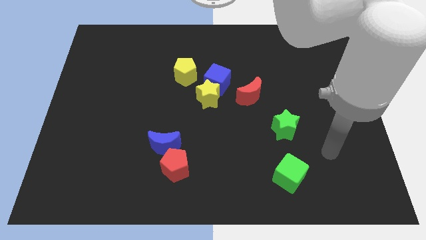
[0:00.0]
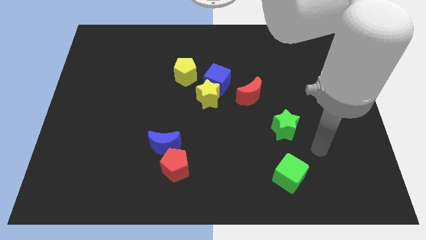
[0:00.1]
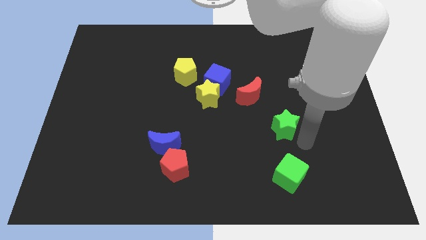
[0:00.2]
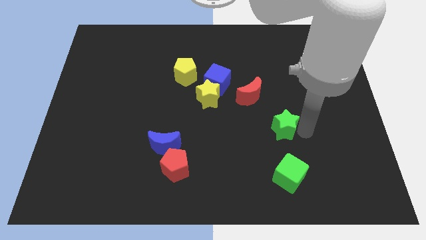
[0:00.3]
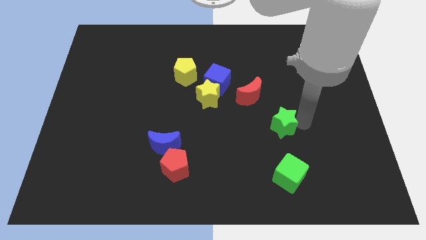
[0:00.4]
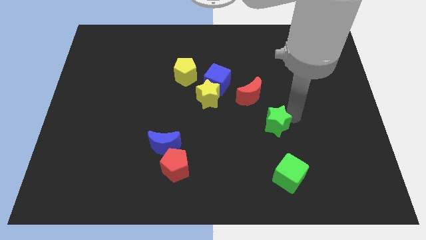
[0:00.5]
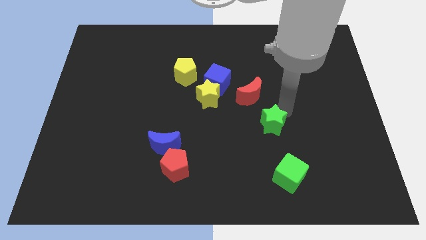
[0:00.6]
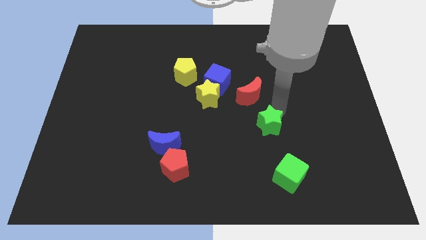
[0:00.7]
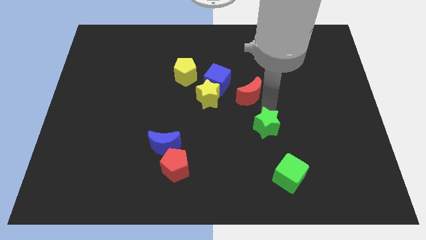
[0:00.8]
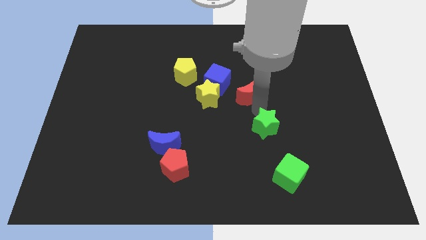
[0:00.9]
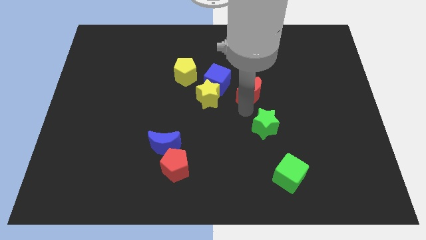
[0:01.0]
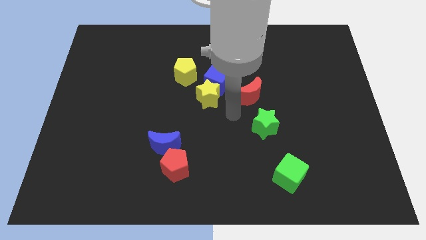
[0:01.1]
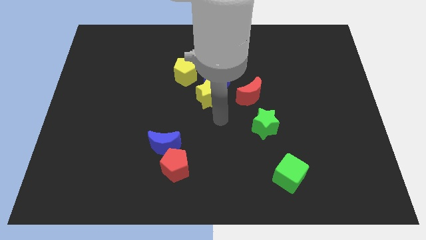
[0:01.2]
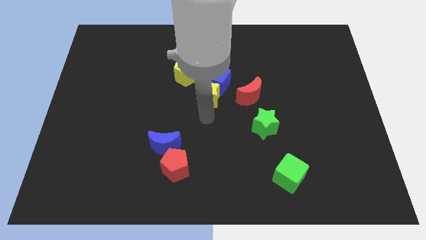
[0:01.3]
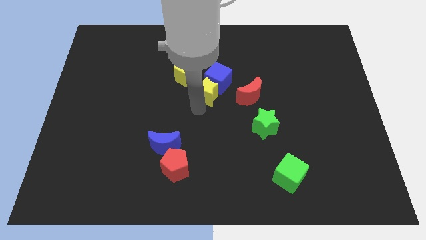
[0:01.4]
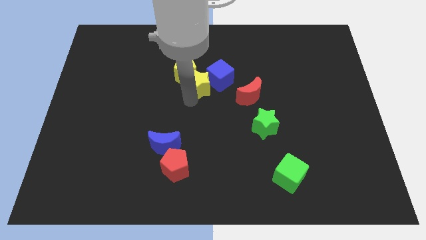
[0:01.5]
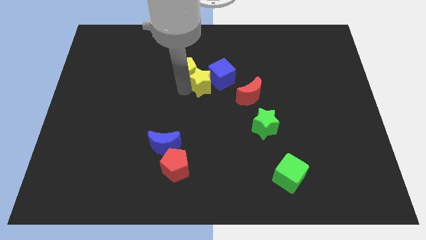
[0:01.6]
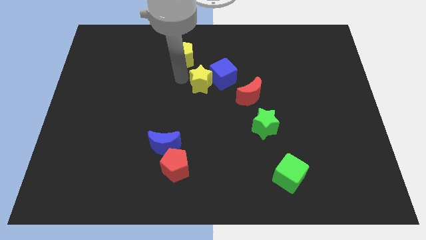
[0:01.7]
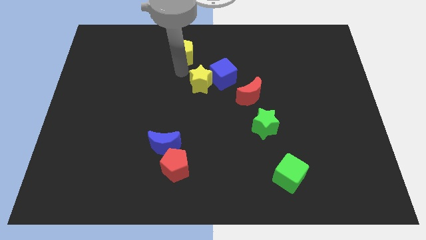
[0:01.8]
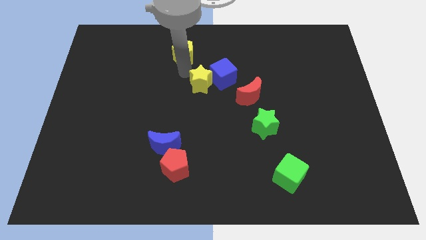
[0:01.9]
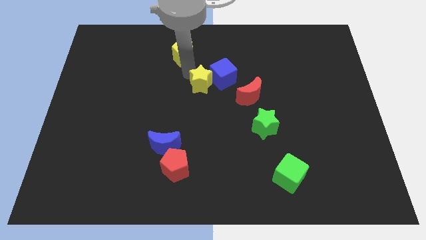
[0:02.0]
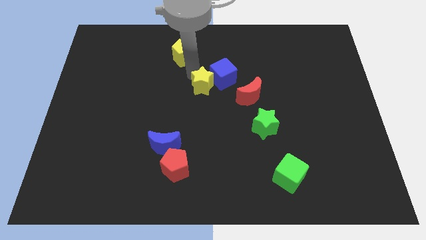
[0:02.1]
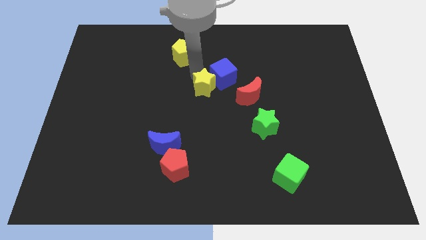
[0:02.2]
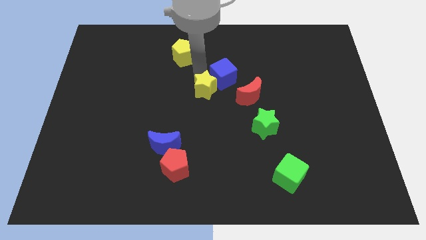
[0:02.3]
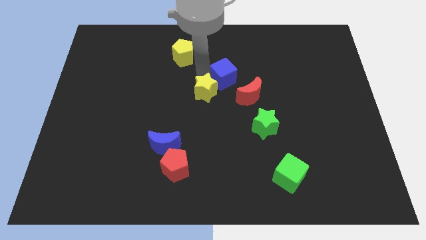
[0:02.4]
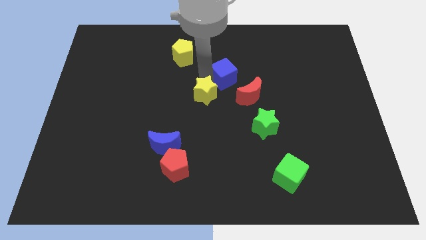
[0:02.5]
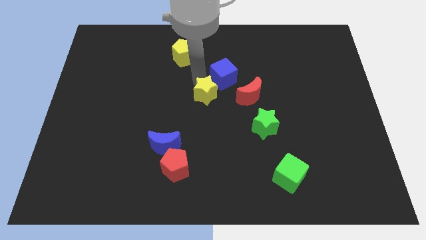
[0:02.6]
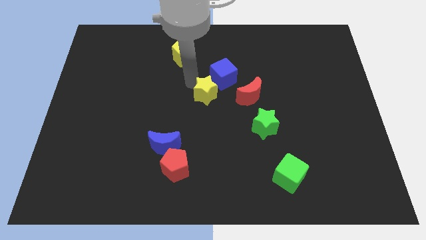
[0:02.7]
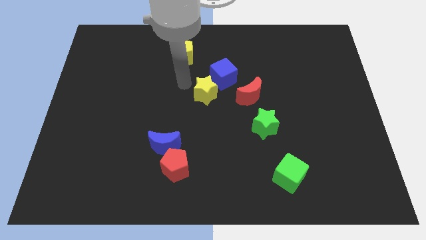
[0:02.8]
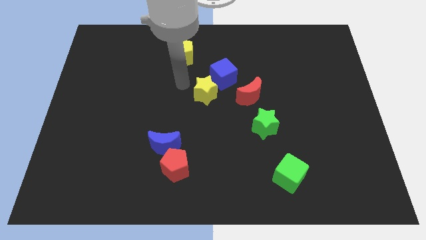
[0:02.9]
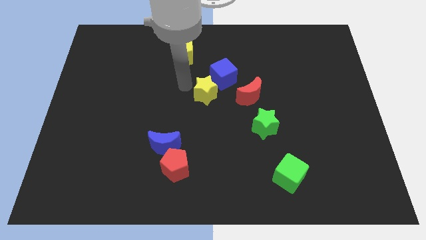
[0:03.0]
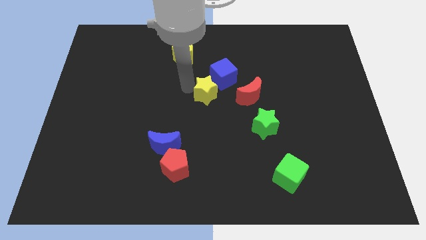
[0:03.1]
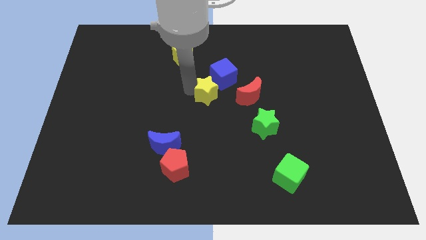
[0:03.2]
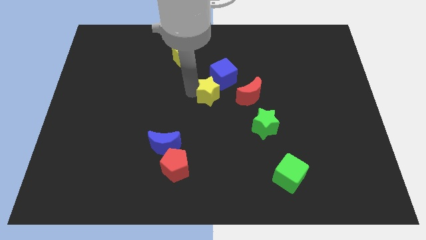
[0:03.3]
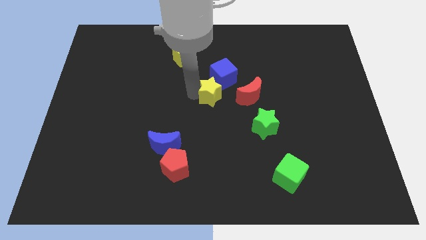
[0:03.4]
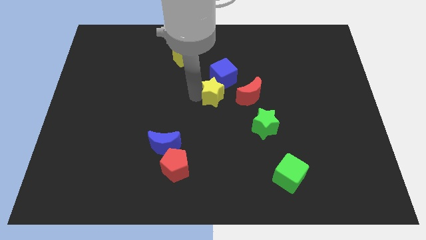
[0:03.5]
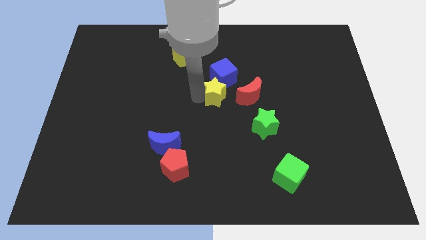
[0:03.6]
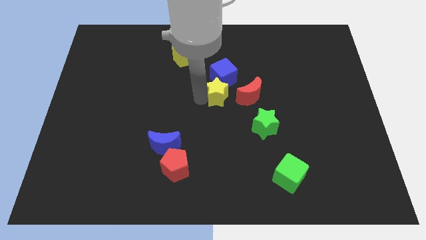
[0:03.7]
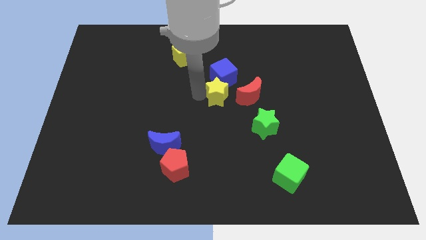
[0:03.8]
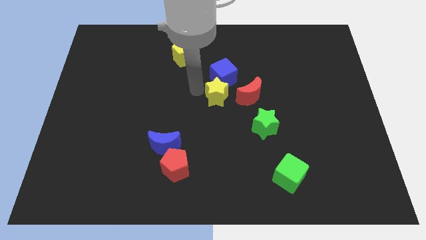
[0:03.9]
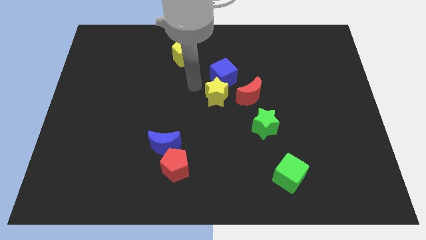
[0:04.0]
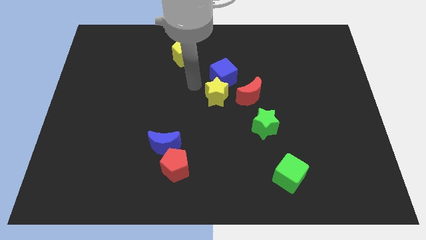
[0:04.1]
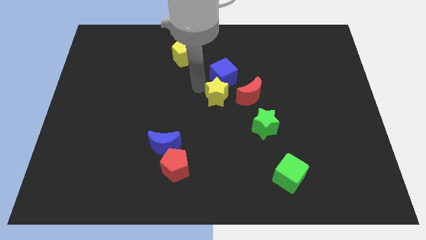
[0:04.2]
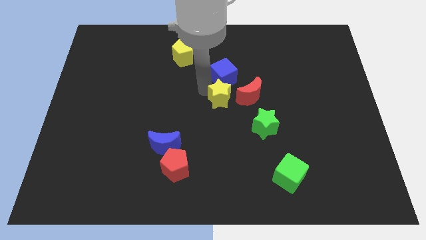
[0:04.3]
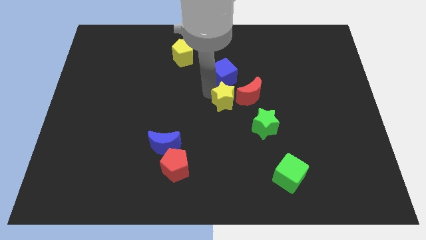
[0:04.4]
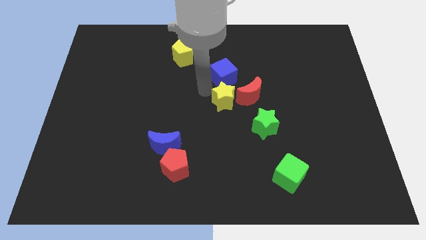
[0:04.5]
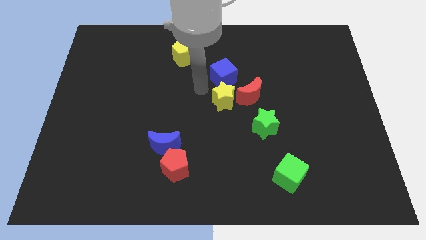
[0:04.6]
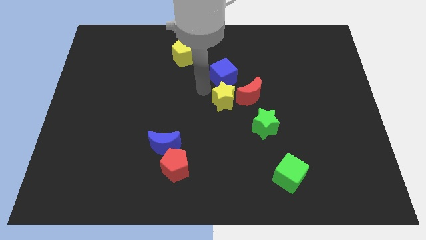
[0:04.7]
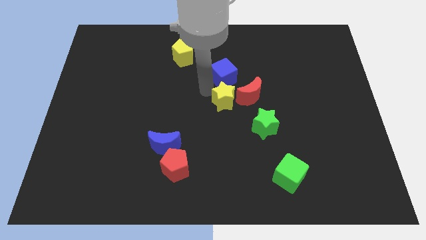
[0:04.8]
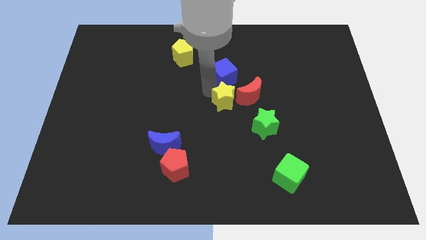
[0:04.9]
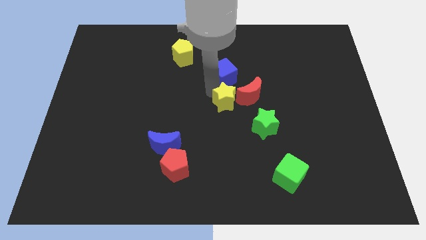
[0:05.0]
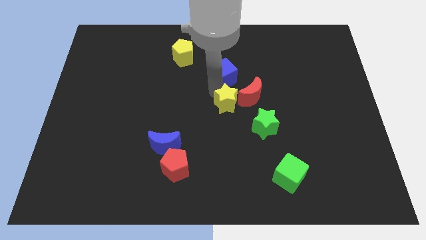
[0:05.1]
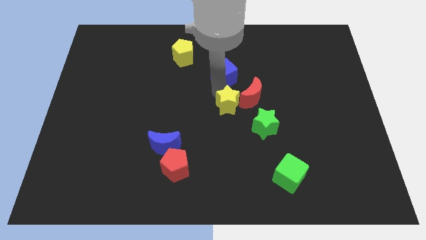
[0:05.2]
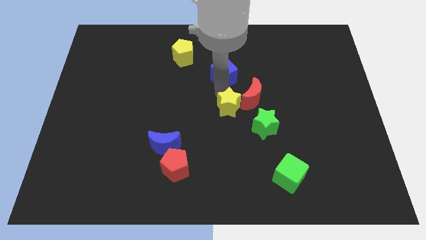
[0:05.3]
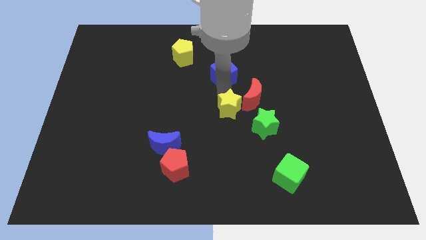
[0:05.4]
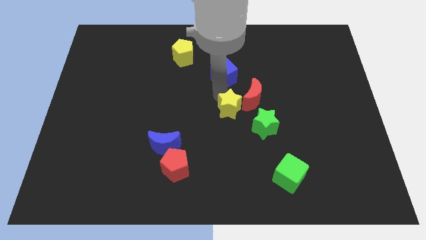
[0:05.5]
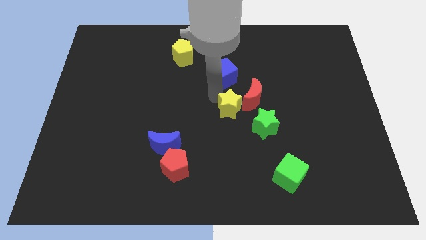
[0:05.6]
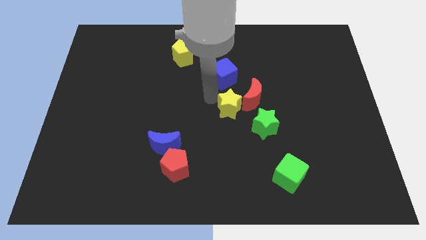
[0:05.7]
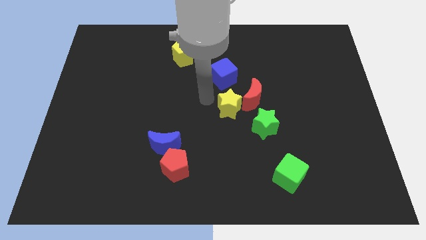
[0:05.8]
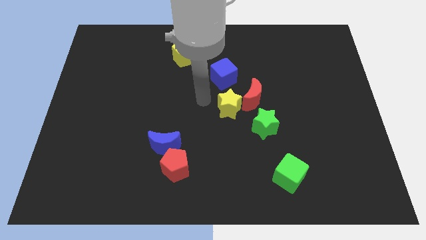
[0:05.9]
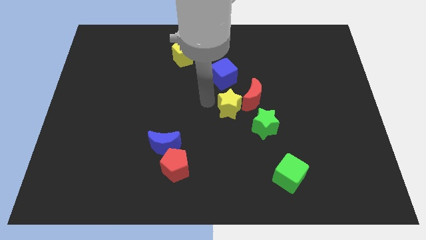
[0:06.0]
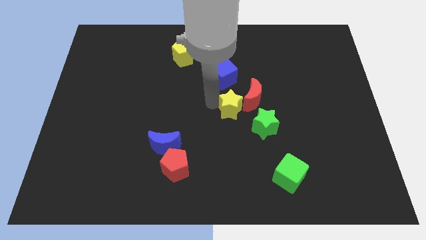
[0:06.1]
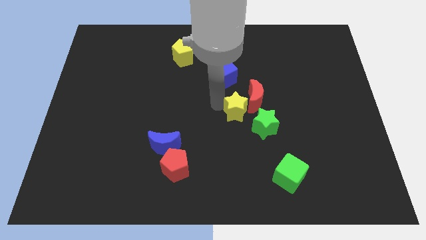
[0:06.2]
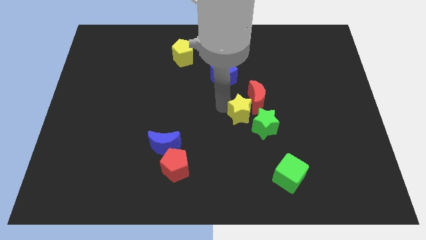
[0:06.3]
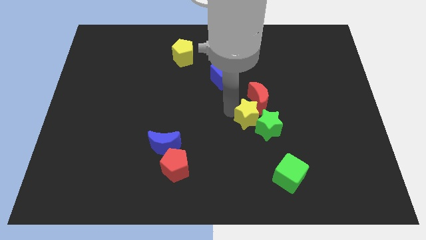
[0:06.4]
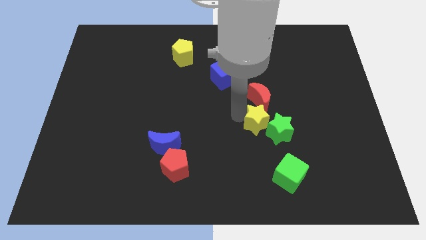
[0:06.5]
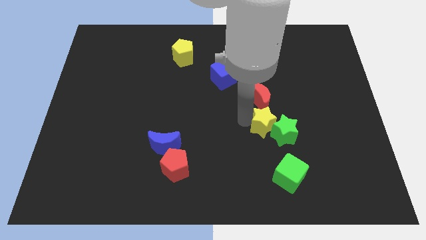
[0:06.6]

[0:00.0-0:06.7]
move the yellow star to the top side of the green cube

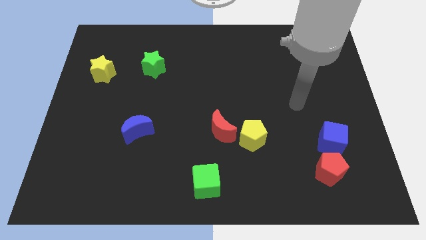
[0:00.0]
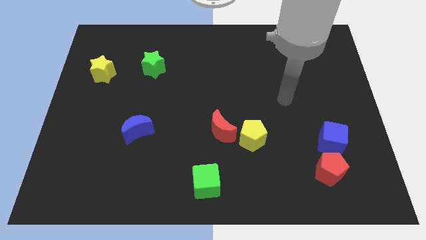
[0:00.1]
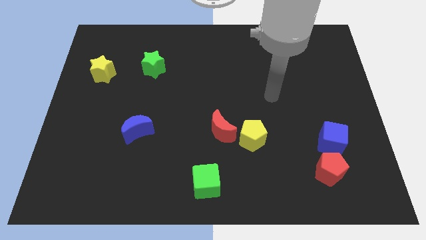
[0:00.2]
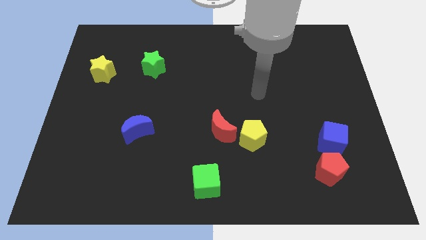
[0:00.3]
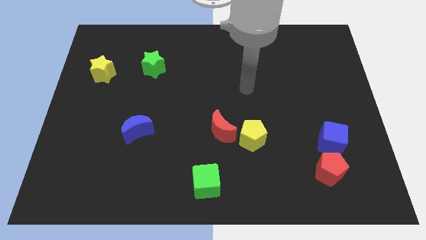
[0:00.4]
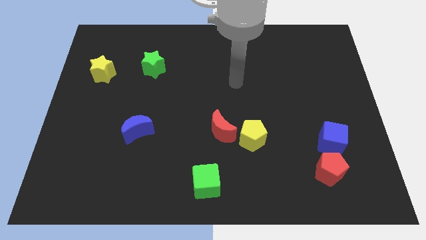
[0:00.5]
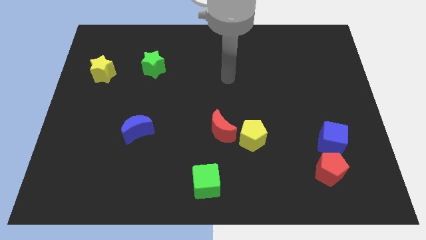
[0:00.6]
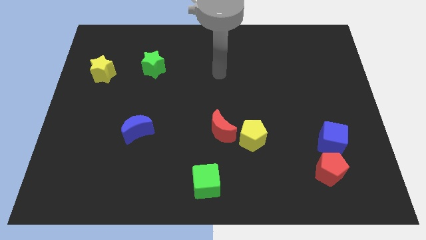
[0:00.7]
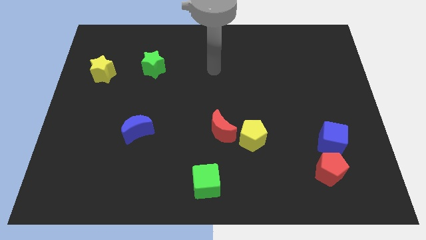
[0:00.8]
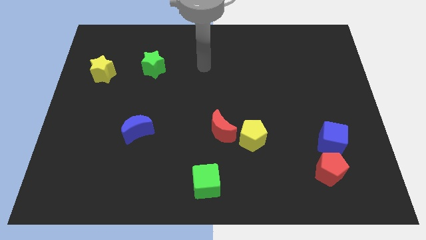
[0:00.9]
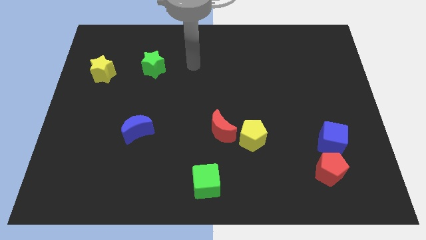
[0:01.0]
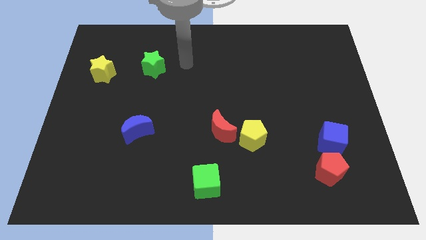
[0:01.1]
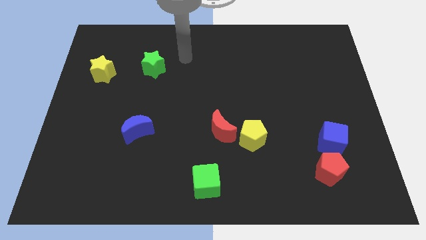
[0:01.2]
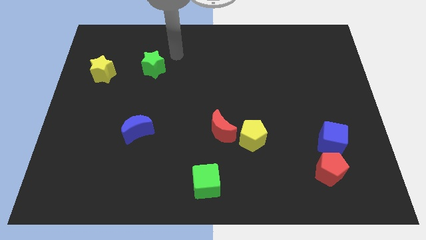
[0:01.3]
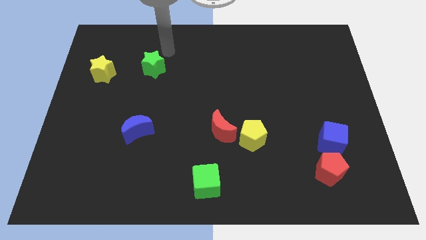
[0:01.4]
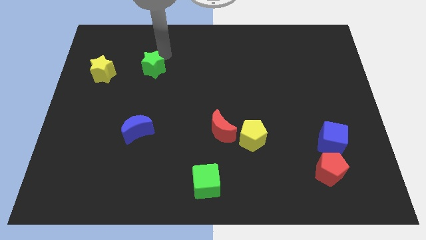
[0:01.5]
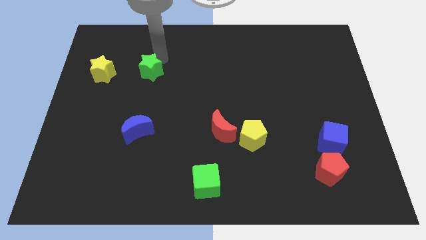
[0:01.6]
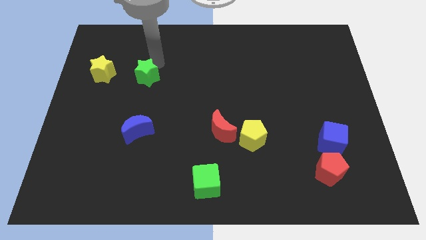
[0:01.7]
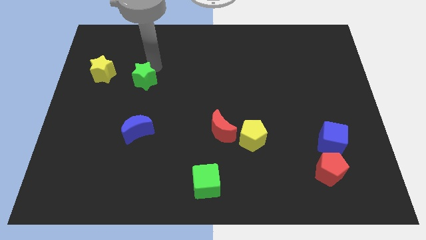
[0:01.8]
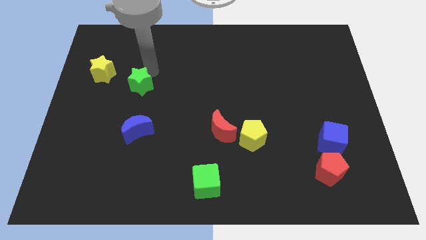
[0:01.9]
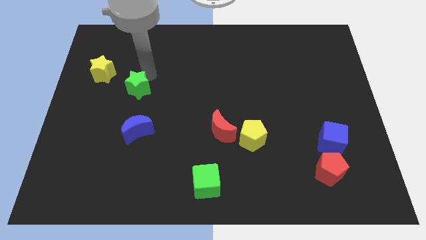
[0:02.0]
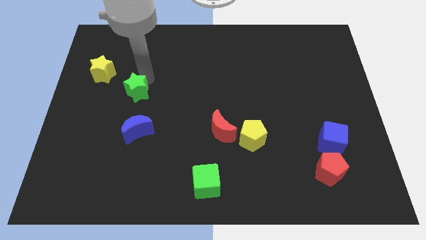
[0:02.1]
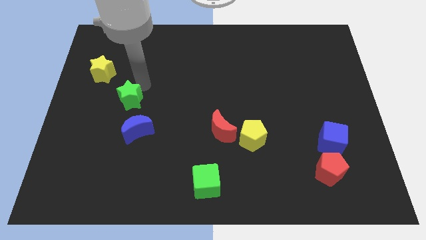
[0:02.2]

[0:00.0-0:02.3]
slide the green star diagonally up and to the left of the blue moon
